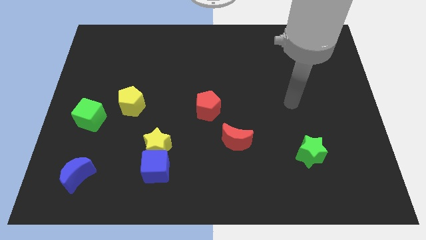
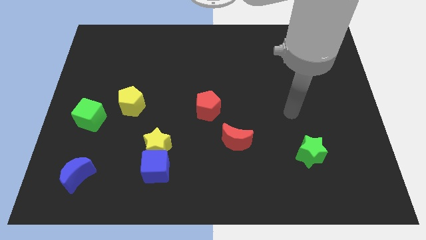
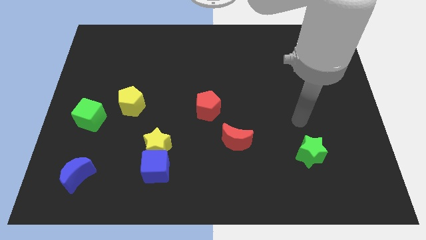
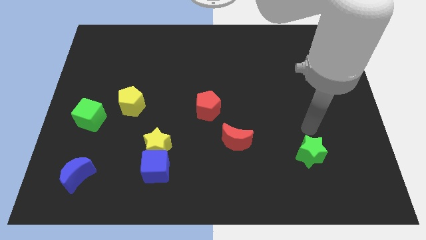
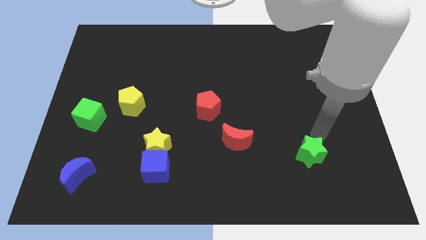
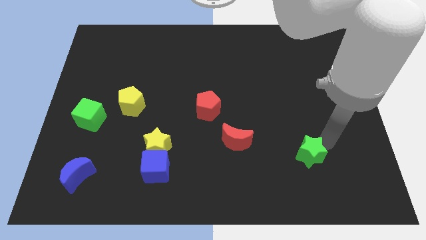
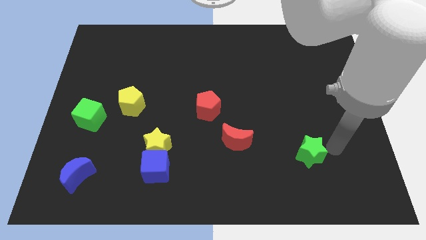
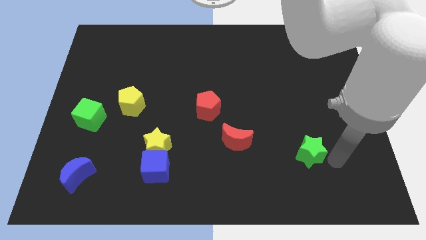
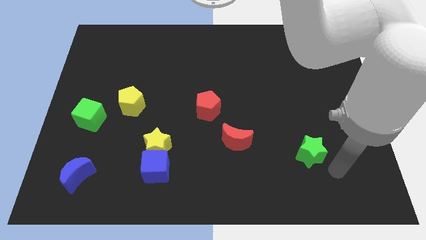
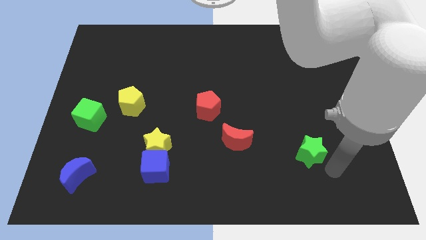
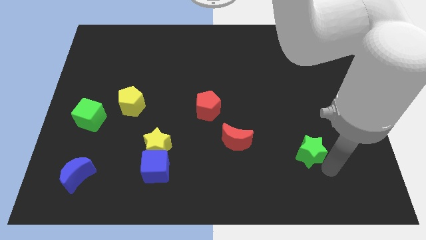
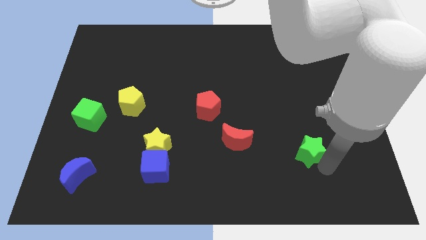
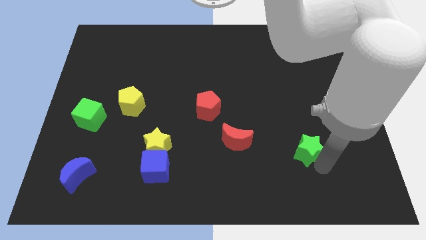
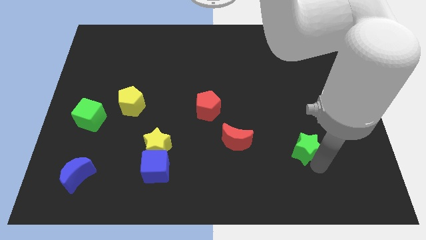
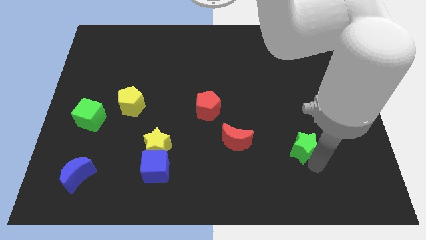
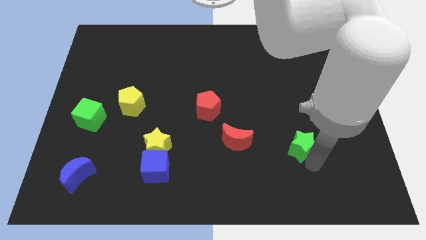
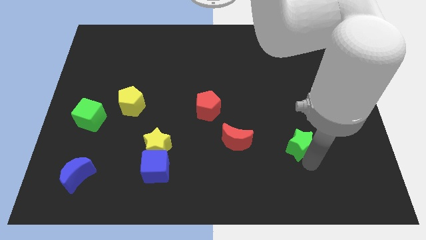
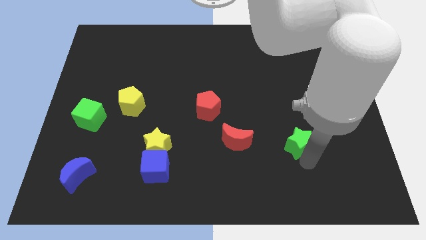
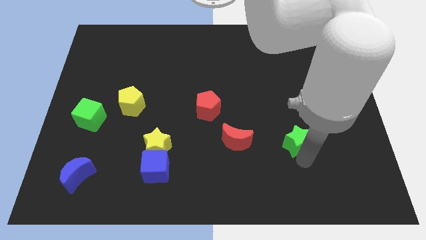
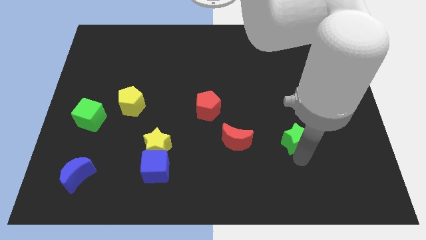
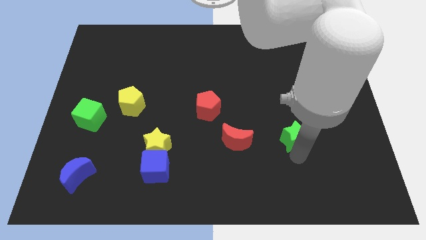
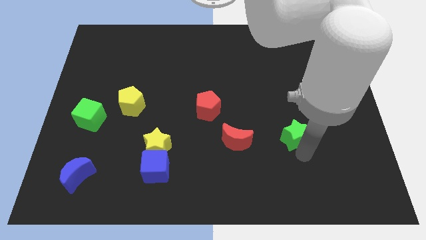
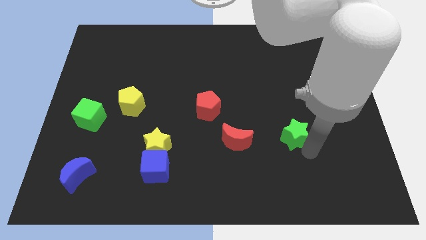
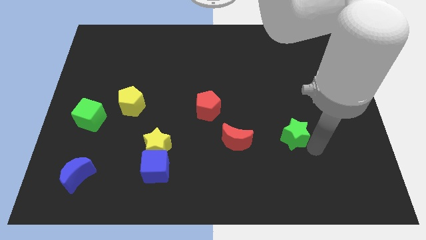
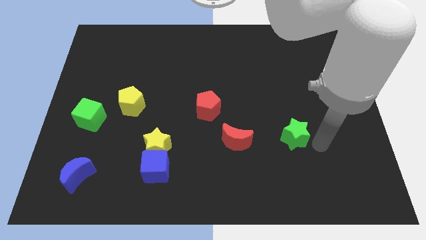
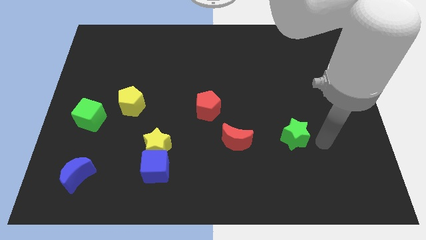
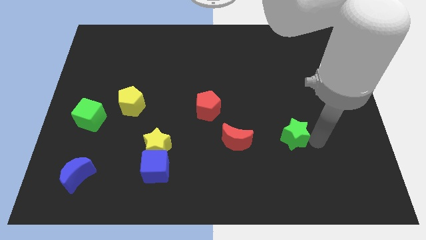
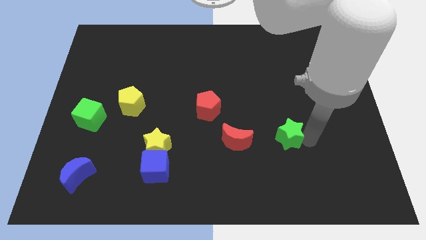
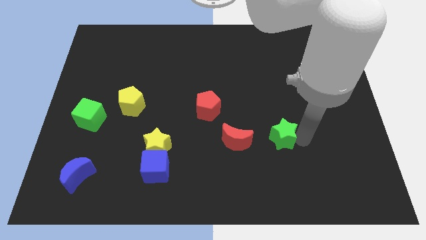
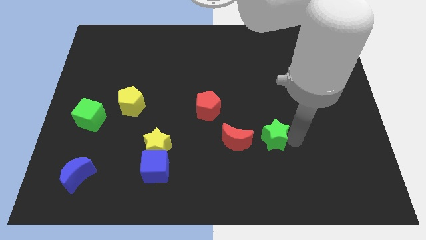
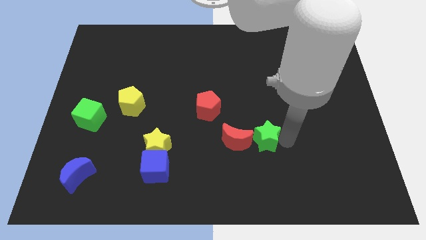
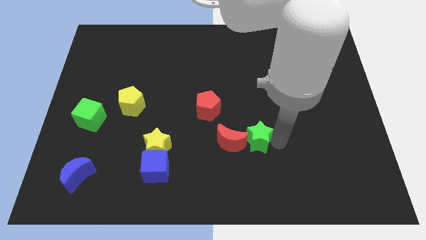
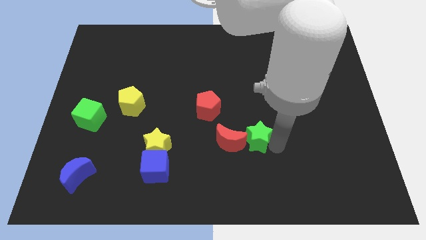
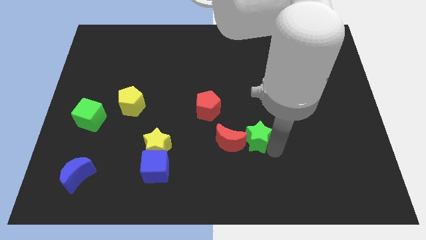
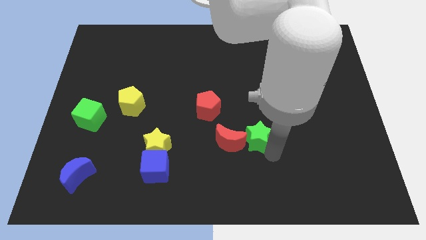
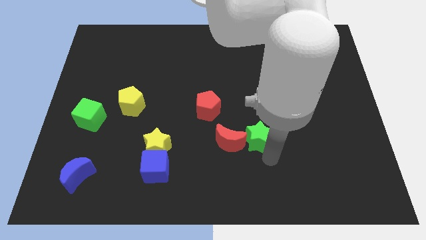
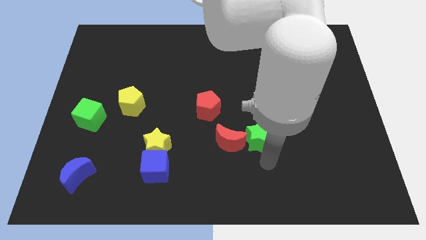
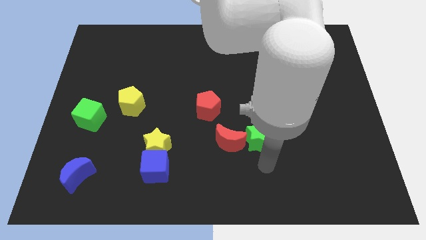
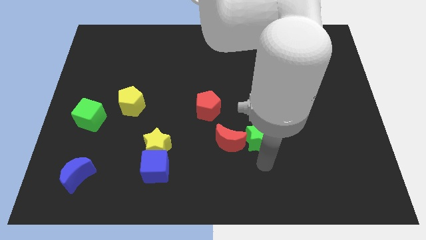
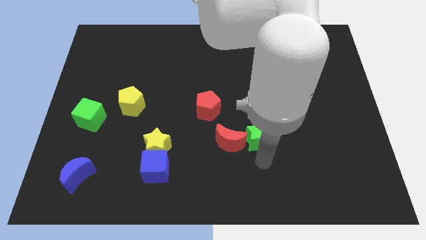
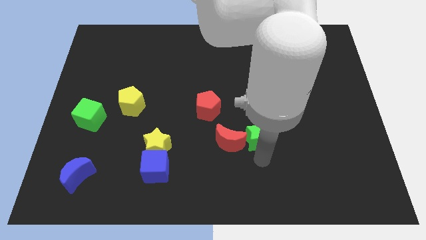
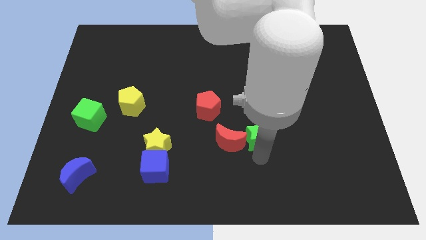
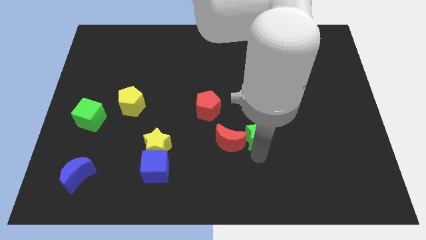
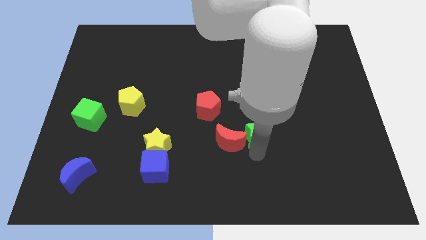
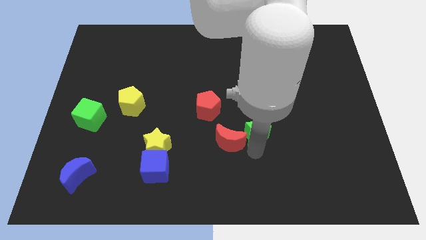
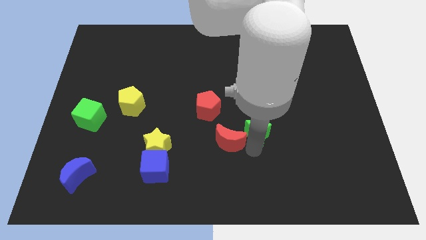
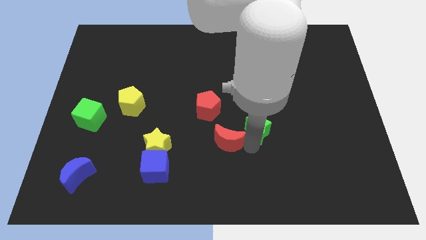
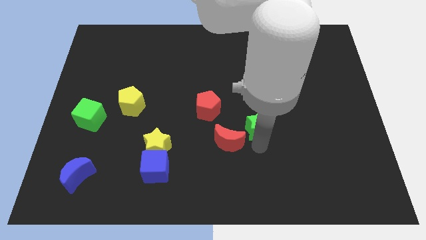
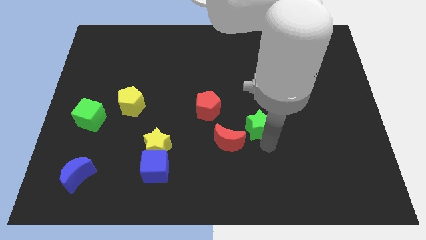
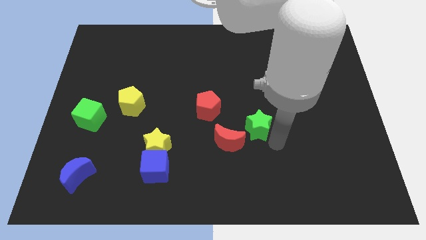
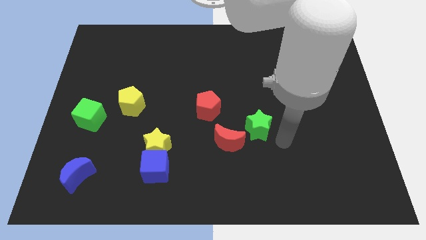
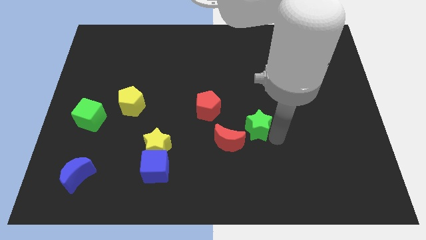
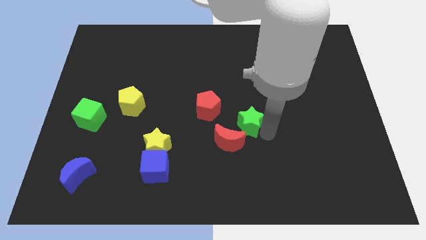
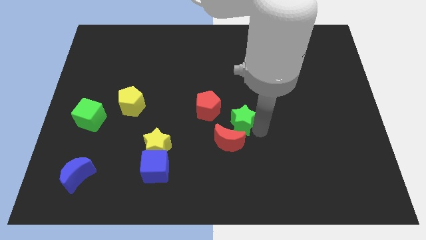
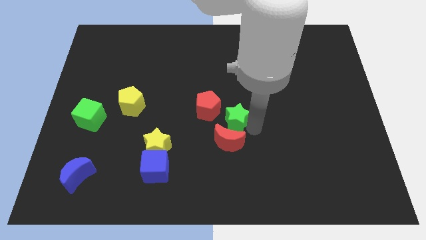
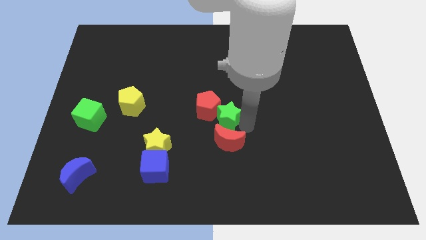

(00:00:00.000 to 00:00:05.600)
move the green star towards the red pentagon

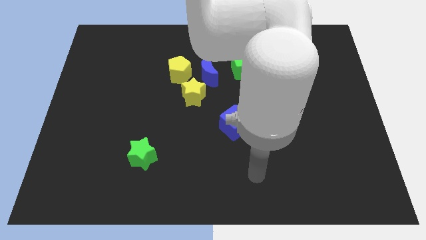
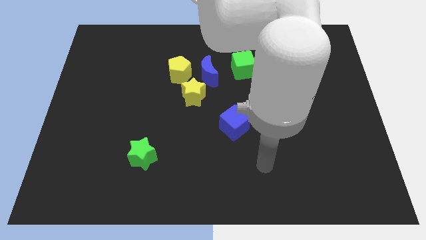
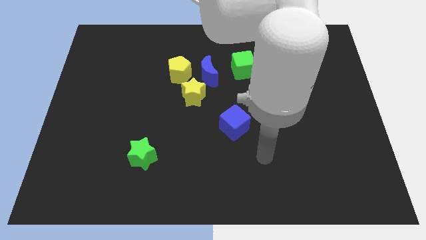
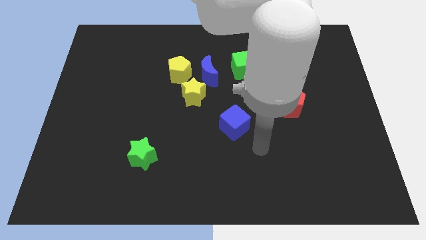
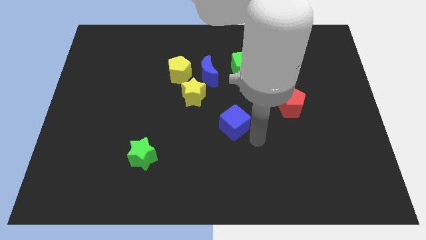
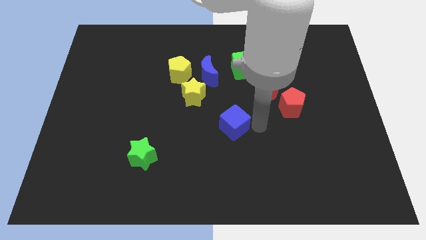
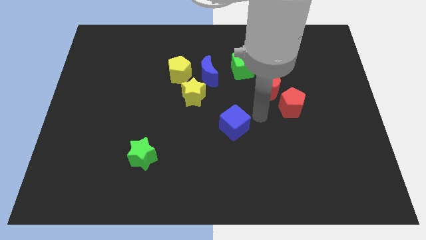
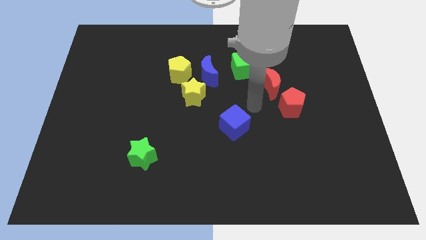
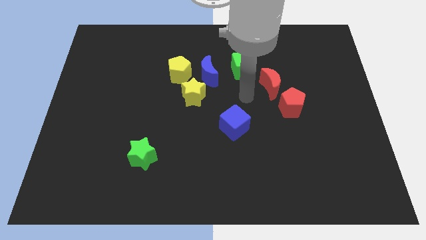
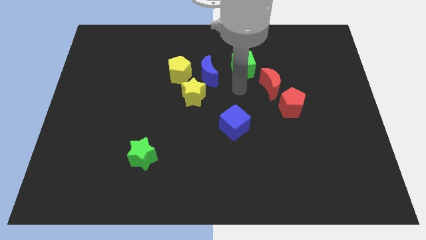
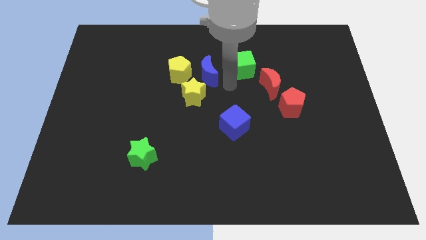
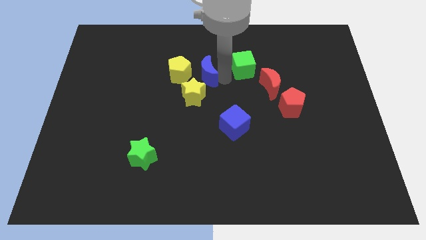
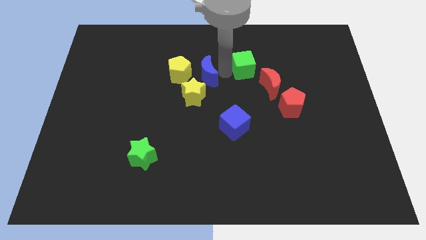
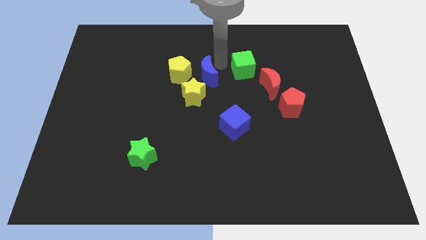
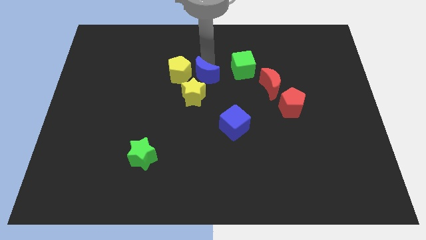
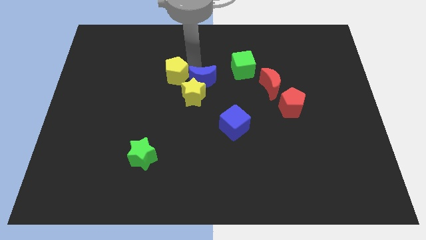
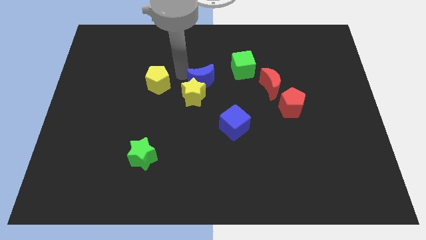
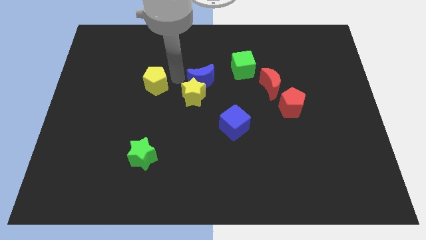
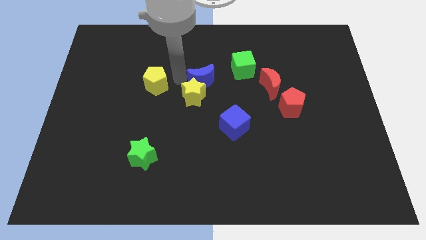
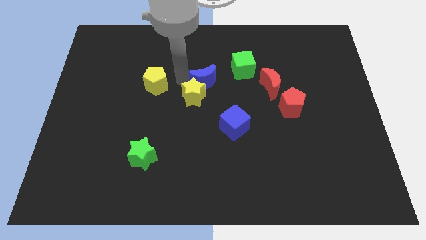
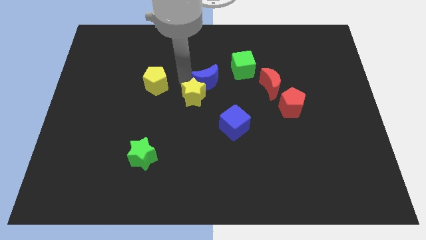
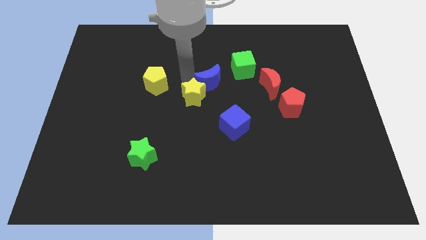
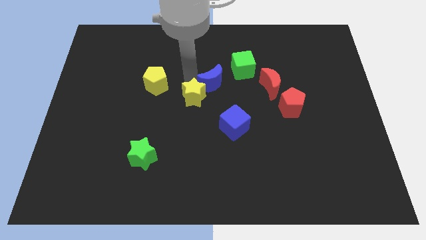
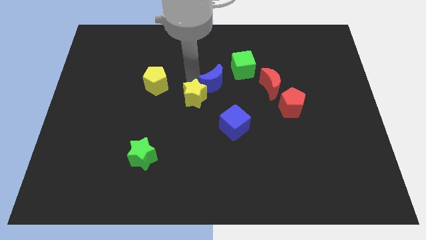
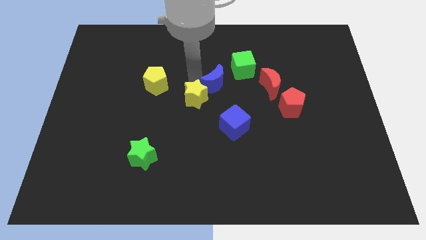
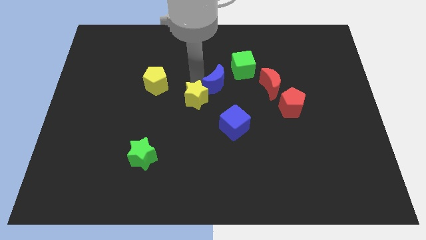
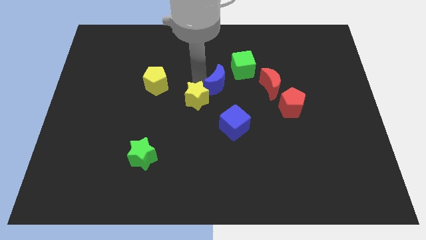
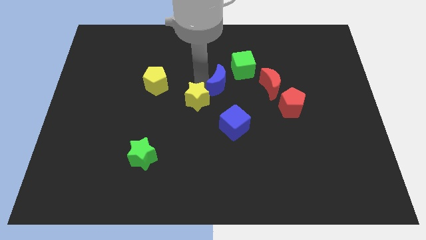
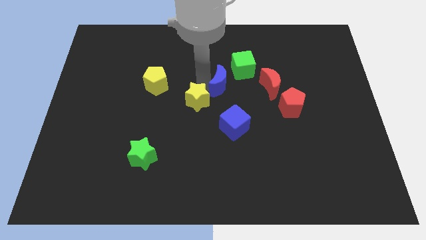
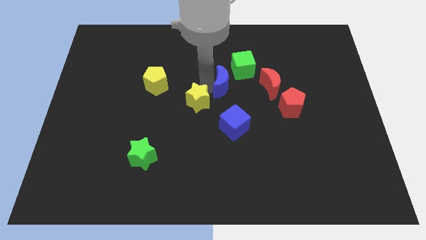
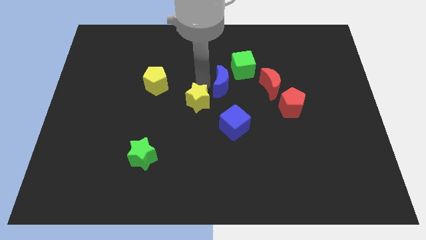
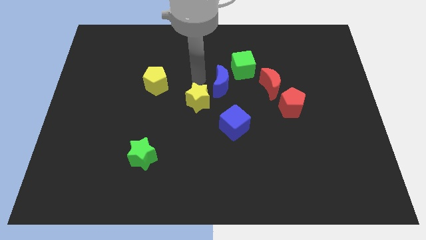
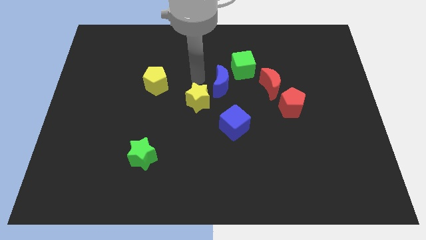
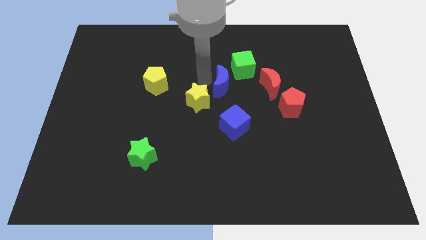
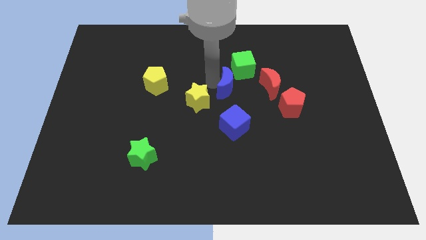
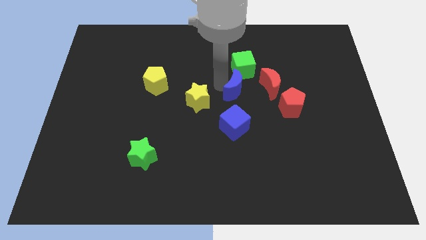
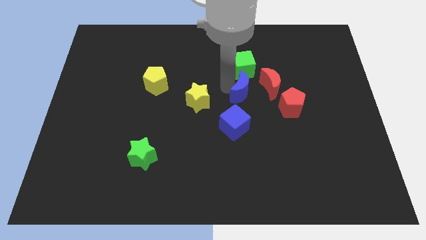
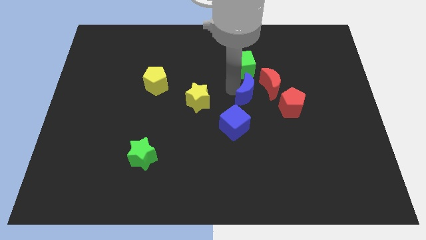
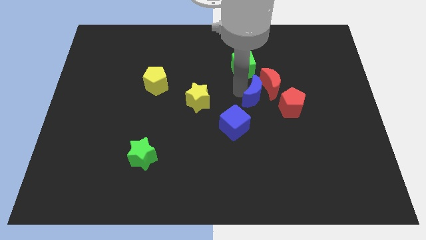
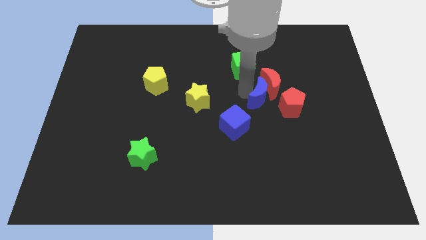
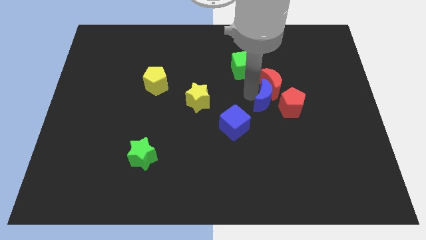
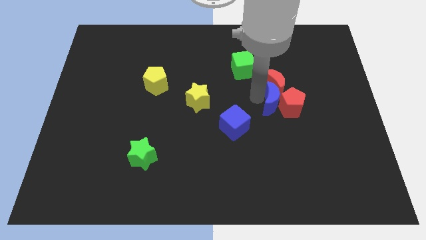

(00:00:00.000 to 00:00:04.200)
slide the blue moon towards the red pentagon
